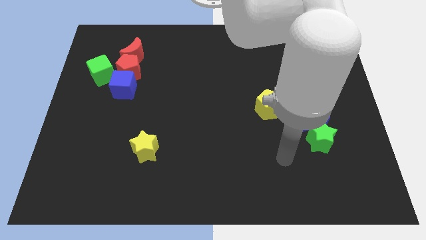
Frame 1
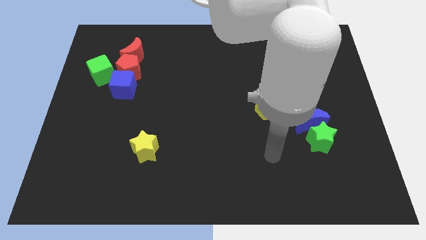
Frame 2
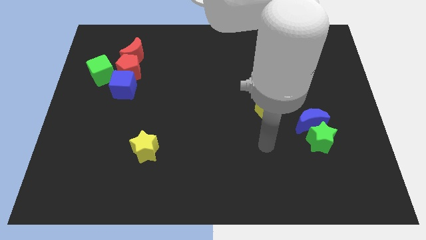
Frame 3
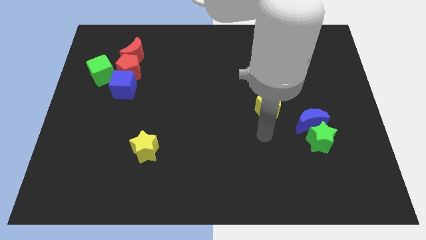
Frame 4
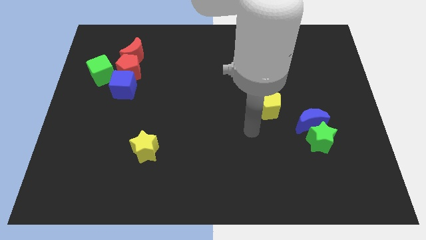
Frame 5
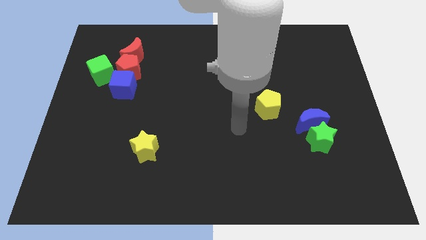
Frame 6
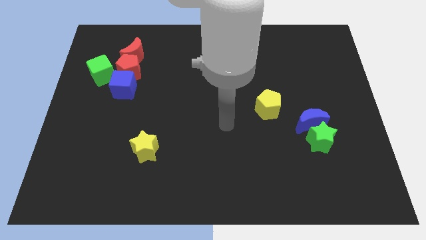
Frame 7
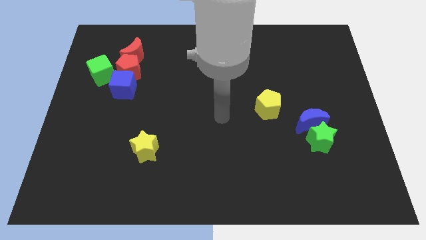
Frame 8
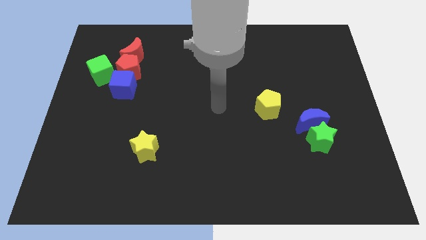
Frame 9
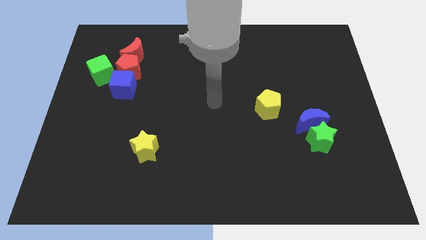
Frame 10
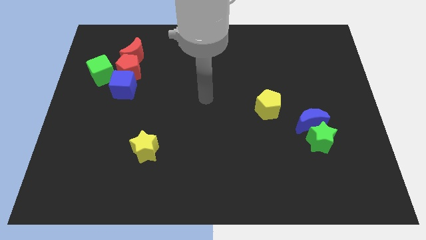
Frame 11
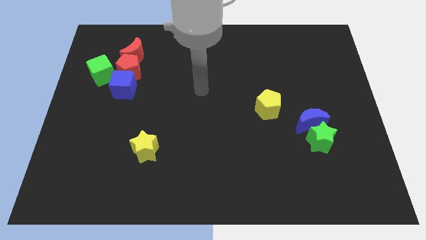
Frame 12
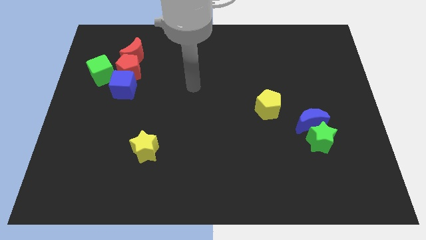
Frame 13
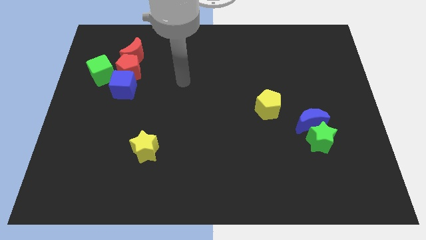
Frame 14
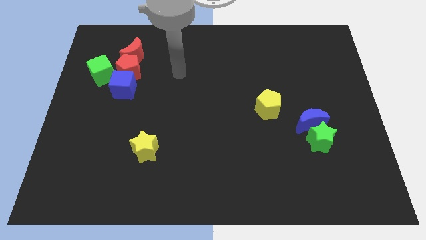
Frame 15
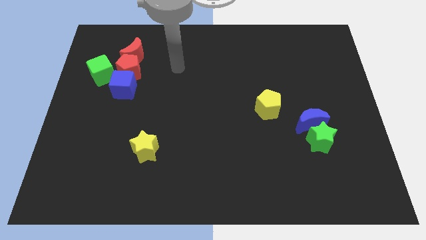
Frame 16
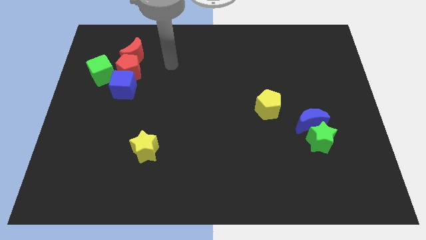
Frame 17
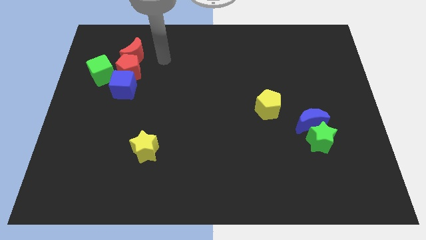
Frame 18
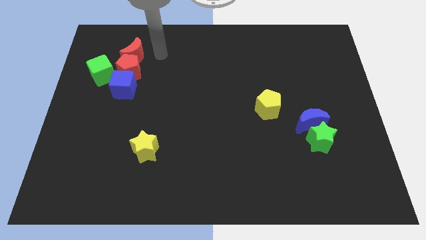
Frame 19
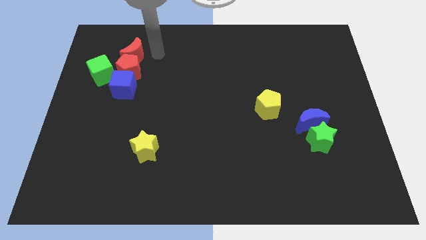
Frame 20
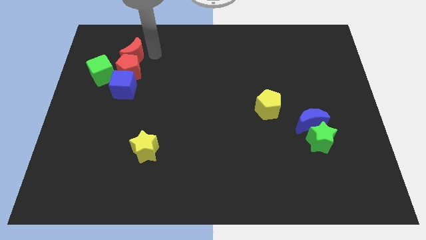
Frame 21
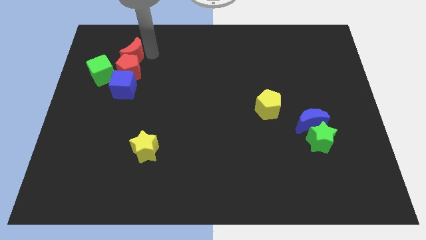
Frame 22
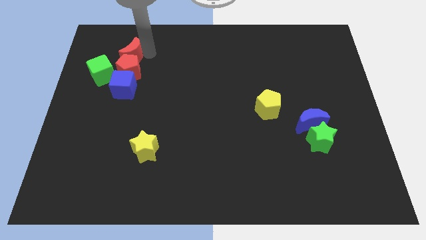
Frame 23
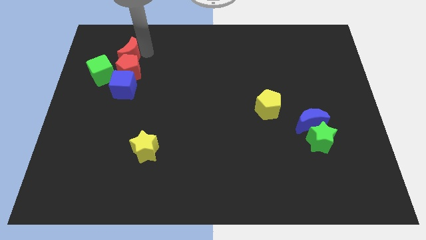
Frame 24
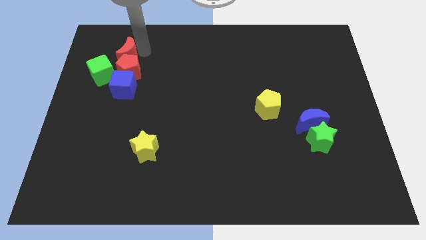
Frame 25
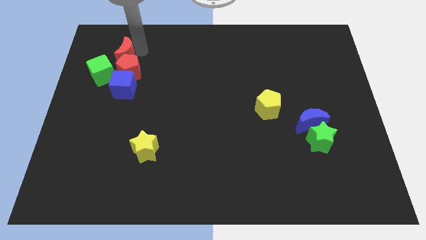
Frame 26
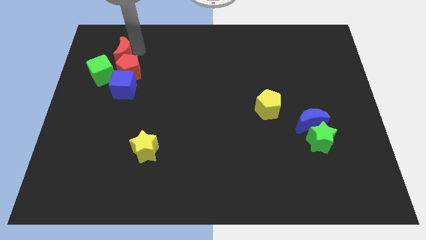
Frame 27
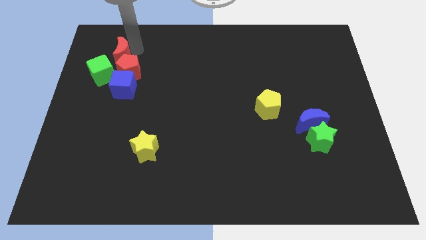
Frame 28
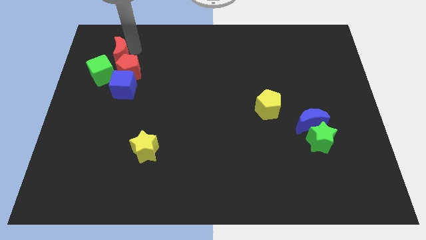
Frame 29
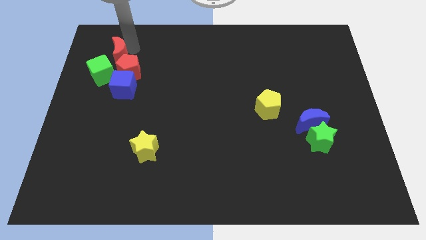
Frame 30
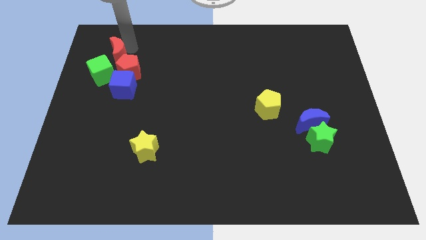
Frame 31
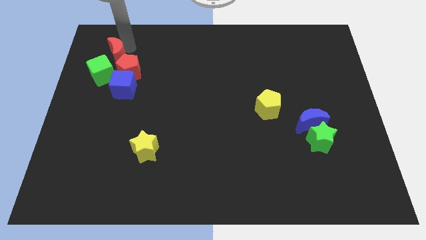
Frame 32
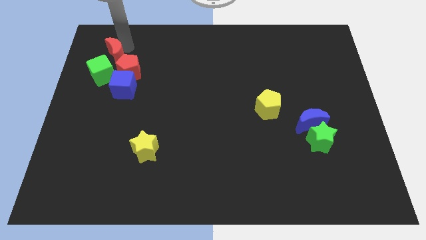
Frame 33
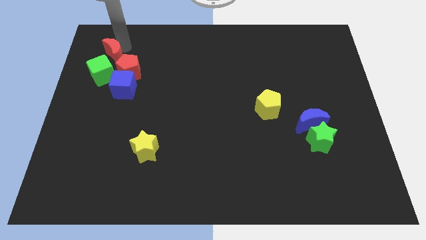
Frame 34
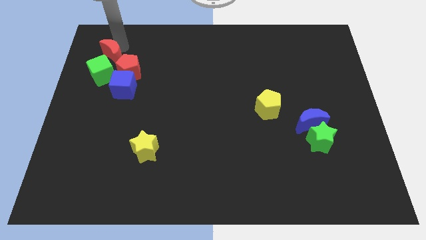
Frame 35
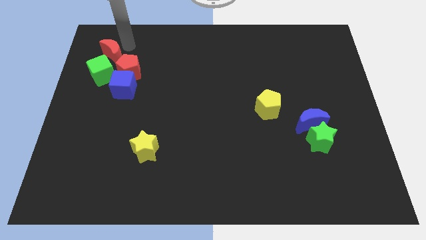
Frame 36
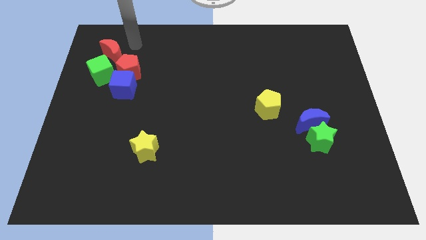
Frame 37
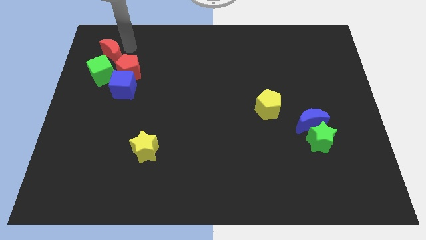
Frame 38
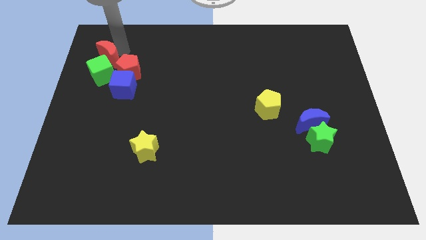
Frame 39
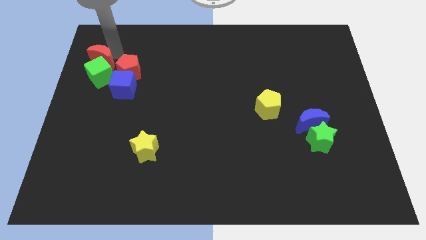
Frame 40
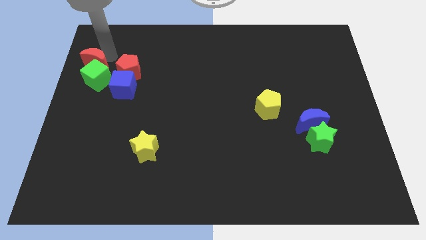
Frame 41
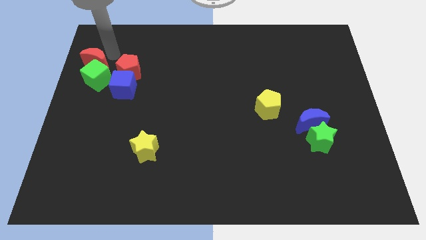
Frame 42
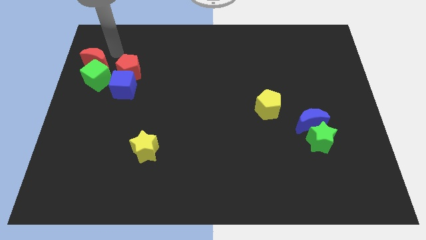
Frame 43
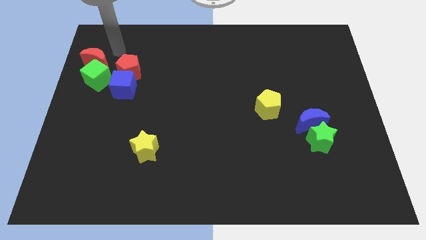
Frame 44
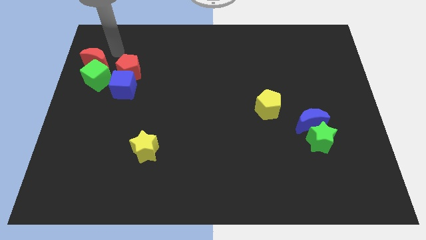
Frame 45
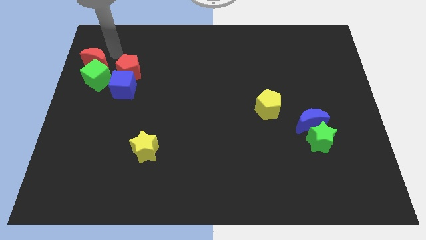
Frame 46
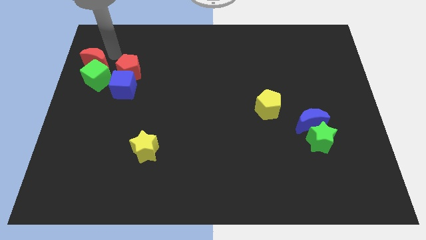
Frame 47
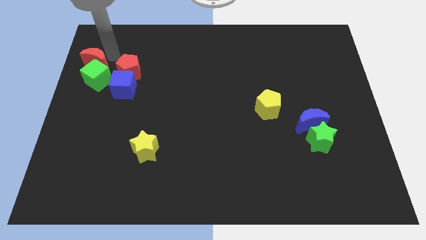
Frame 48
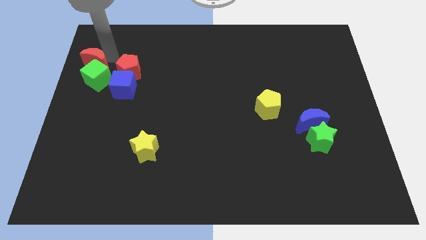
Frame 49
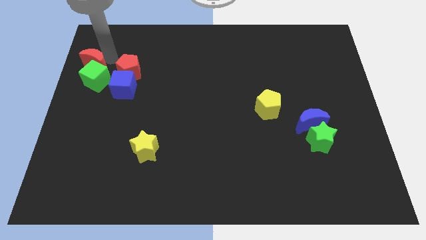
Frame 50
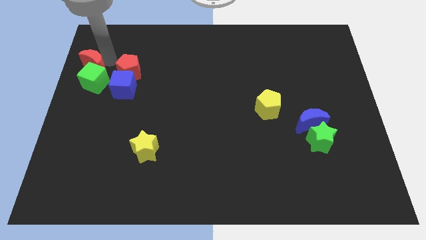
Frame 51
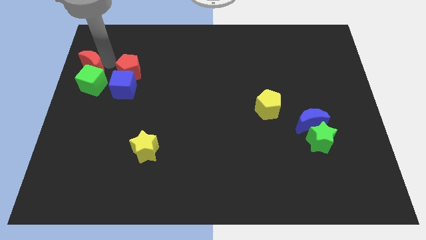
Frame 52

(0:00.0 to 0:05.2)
push the red moon to the left side
